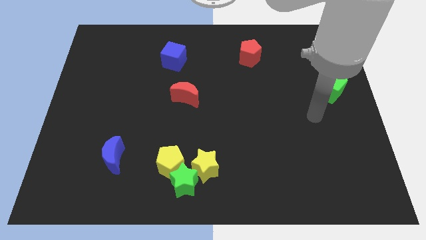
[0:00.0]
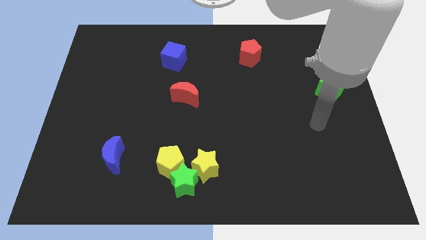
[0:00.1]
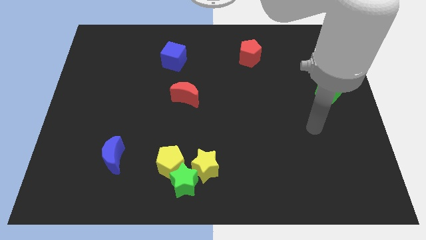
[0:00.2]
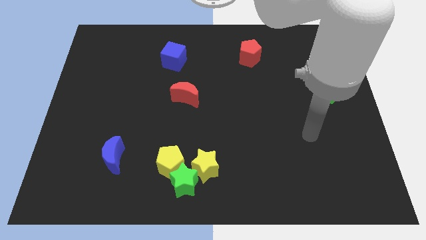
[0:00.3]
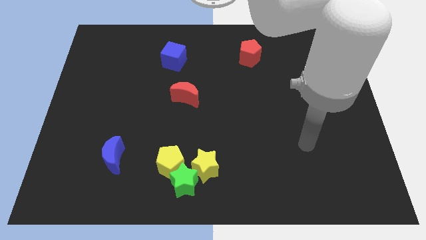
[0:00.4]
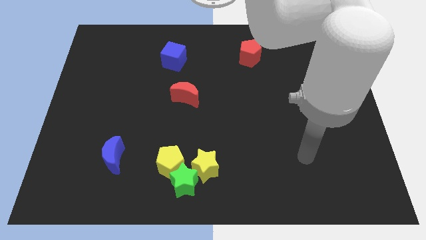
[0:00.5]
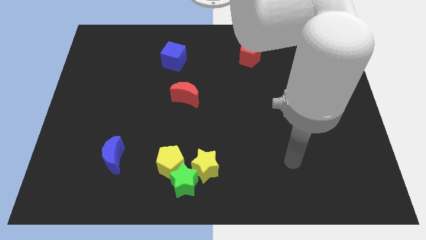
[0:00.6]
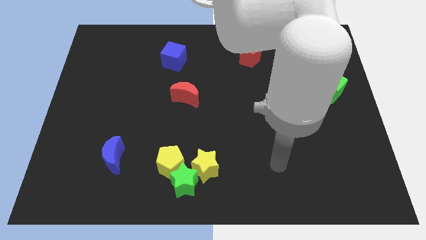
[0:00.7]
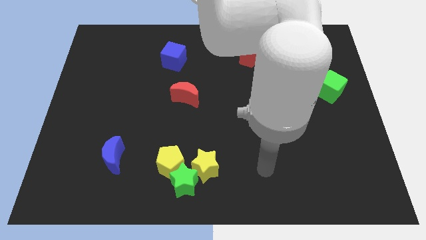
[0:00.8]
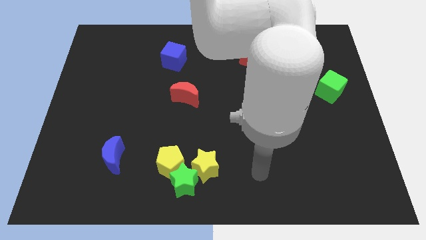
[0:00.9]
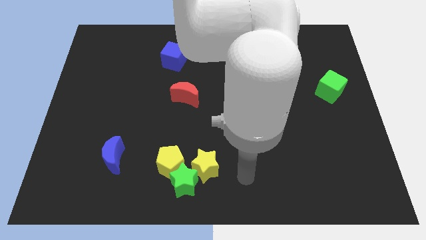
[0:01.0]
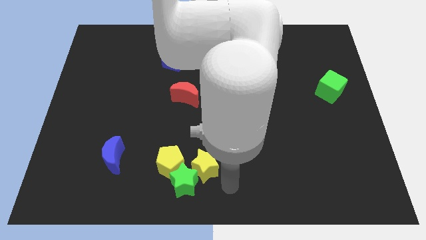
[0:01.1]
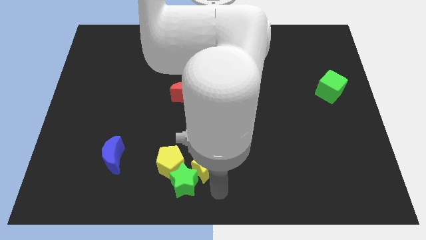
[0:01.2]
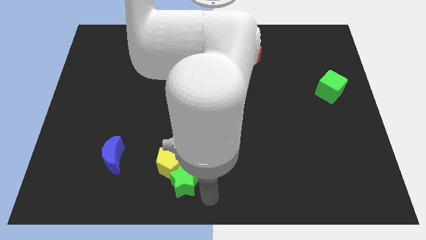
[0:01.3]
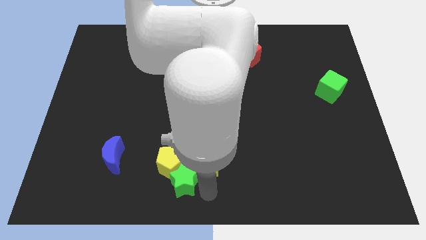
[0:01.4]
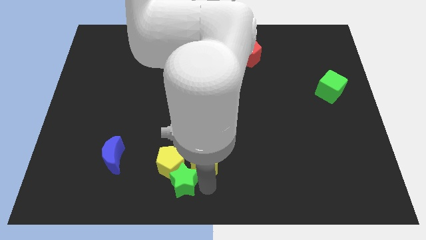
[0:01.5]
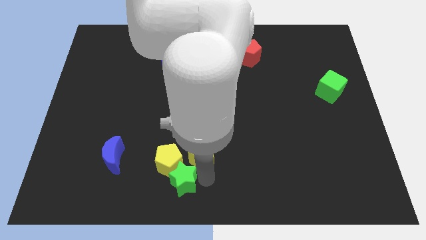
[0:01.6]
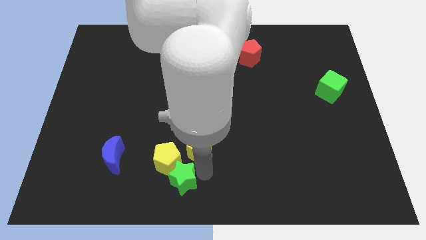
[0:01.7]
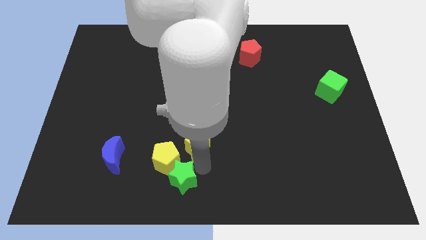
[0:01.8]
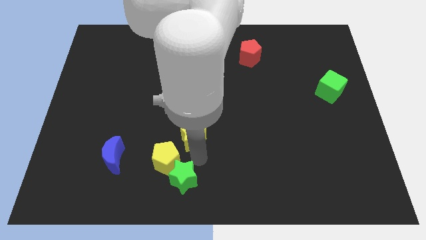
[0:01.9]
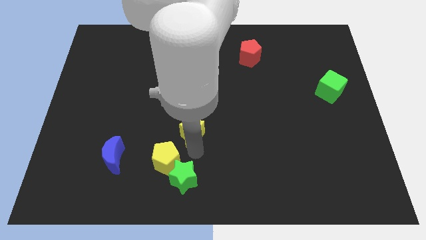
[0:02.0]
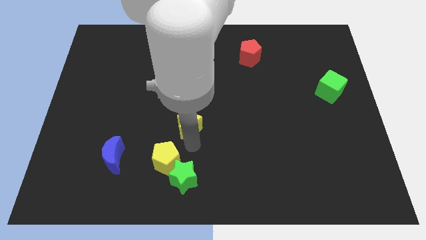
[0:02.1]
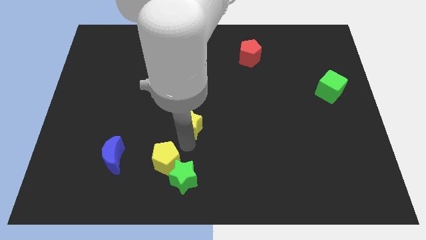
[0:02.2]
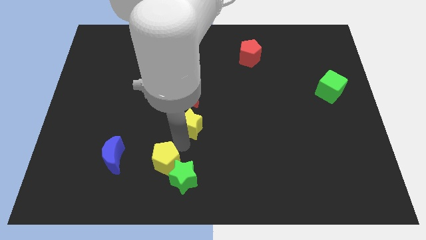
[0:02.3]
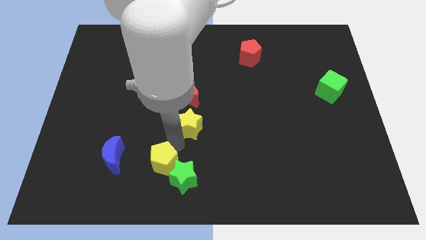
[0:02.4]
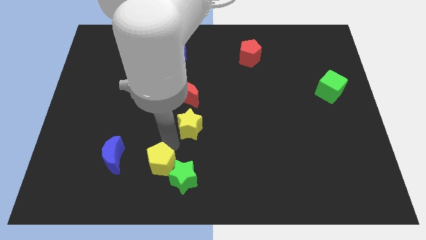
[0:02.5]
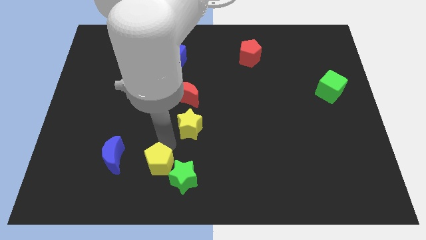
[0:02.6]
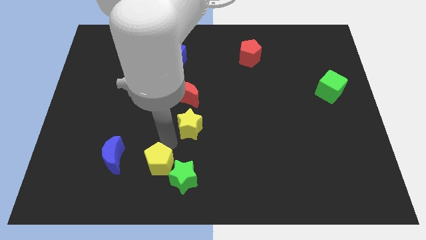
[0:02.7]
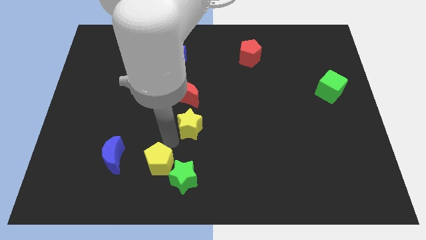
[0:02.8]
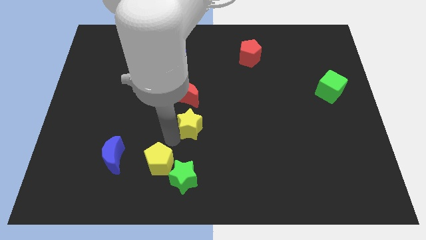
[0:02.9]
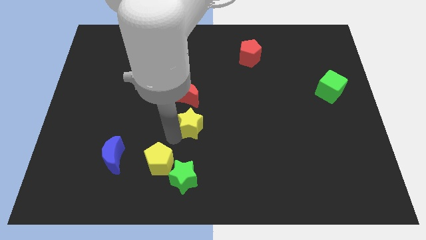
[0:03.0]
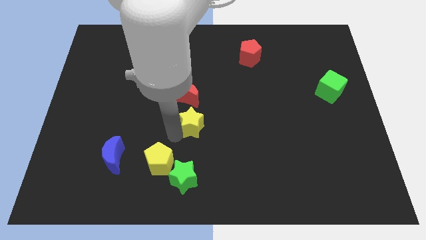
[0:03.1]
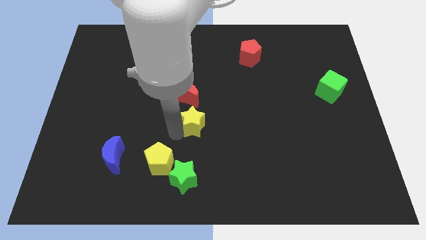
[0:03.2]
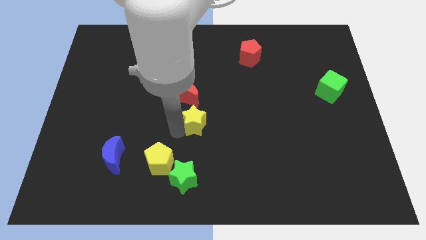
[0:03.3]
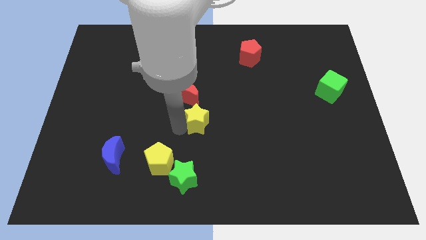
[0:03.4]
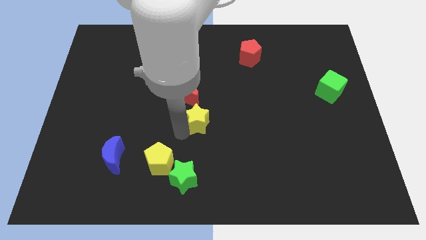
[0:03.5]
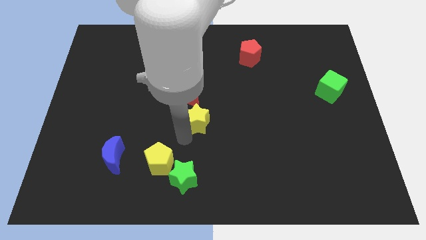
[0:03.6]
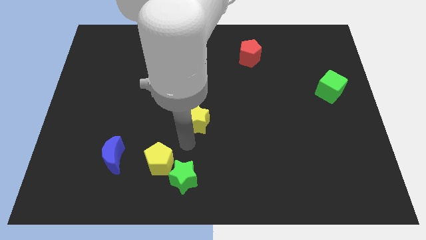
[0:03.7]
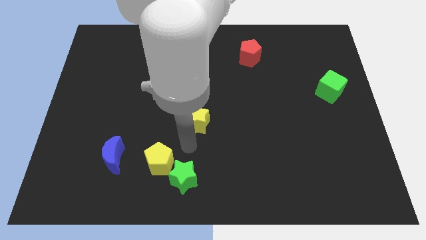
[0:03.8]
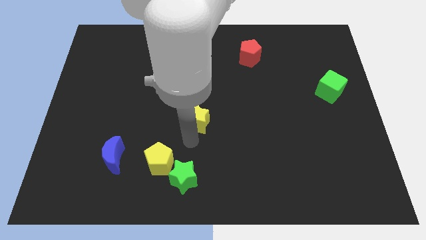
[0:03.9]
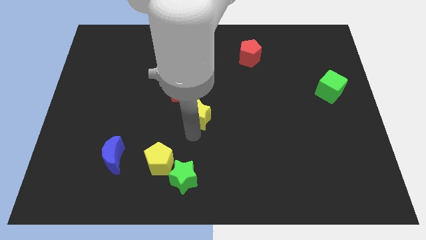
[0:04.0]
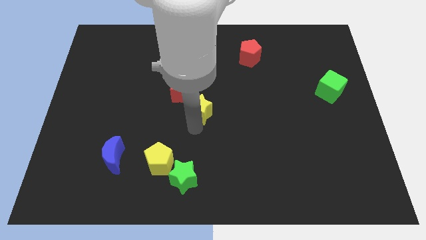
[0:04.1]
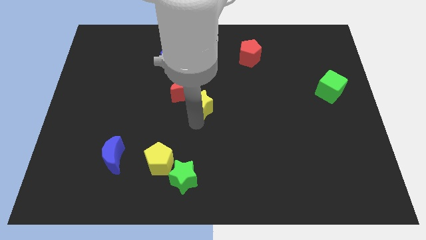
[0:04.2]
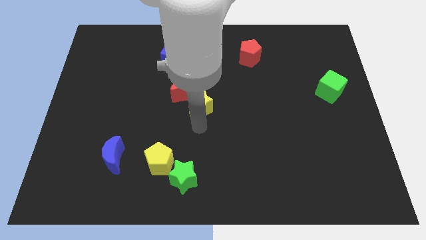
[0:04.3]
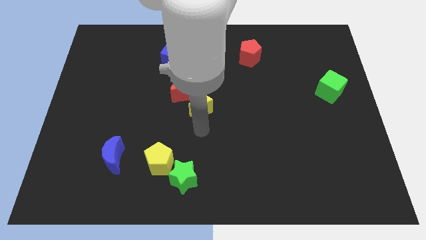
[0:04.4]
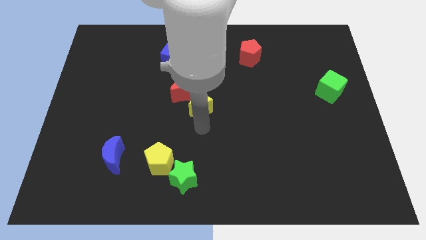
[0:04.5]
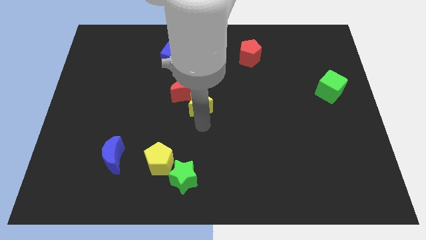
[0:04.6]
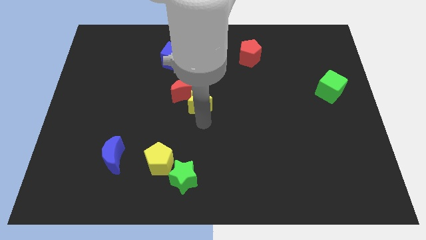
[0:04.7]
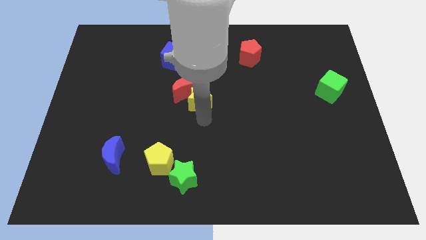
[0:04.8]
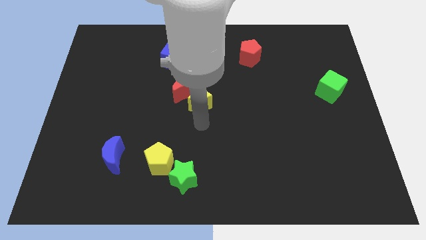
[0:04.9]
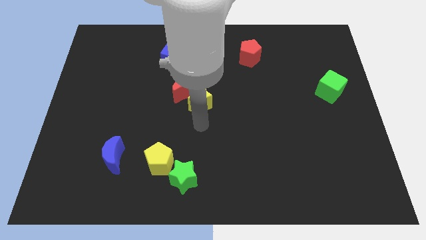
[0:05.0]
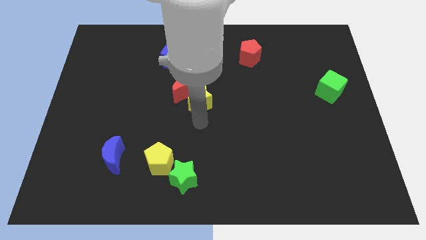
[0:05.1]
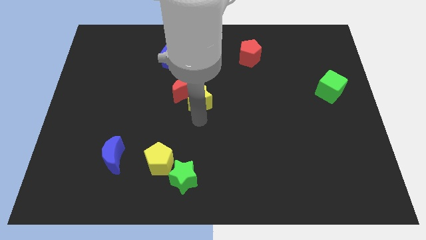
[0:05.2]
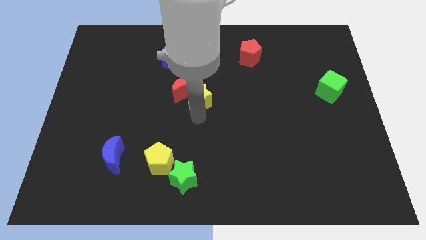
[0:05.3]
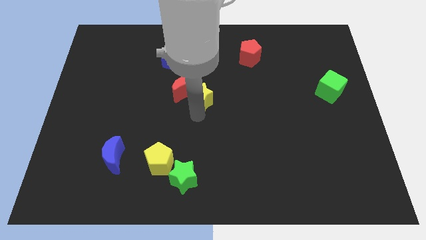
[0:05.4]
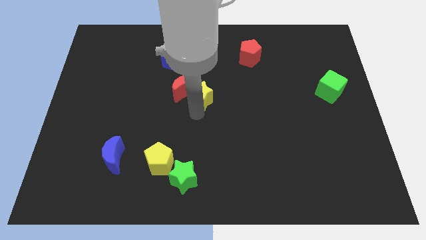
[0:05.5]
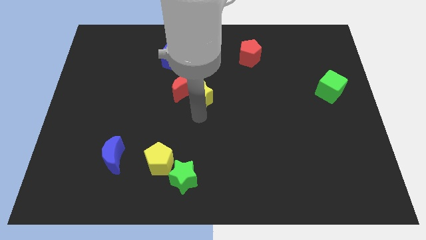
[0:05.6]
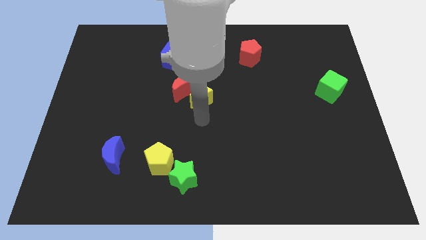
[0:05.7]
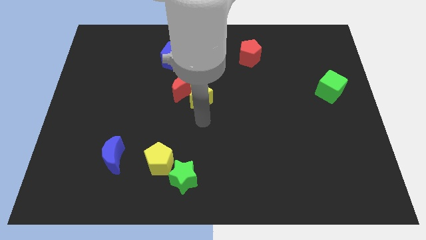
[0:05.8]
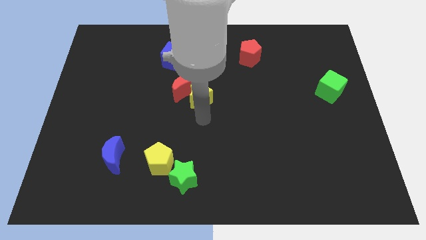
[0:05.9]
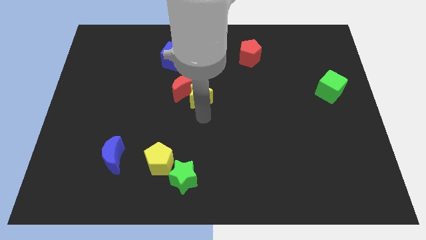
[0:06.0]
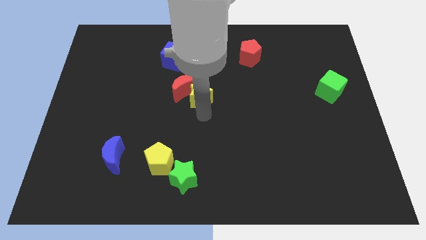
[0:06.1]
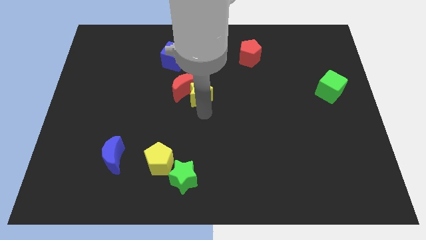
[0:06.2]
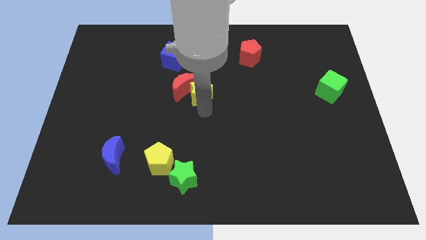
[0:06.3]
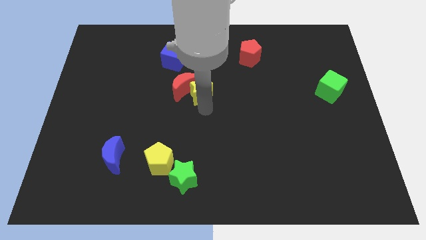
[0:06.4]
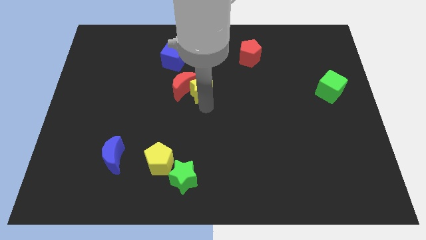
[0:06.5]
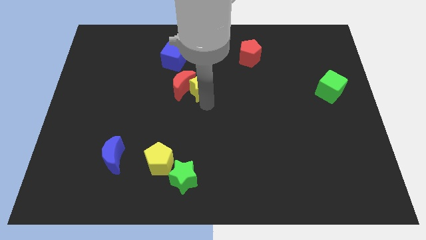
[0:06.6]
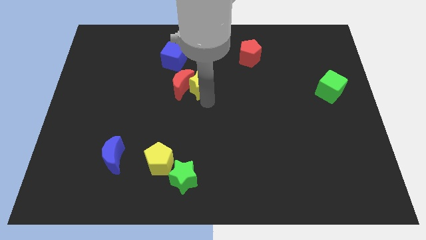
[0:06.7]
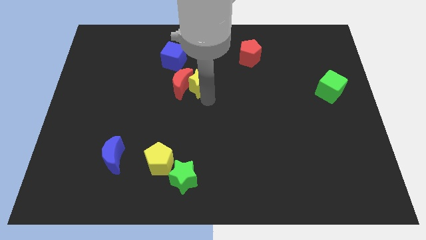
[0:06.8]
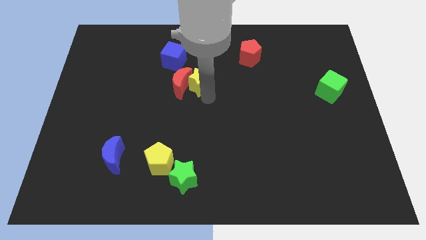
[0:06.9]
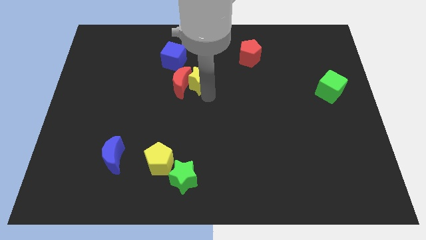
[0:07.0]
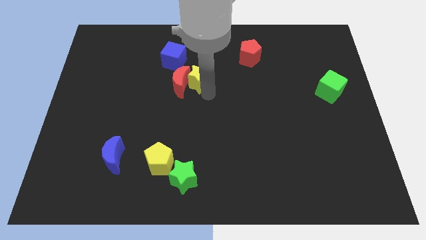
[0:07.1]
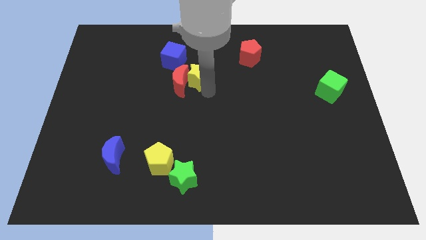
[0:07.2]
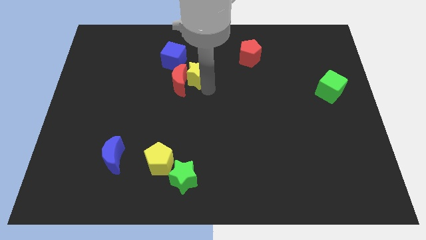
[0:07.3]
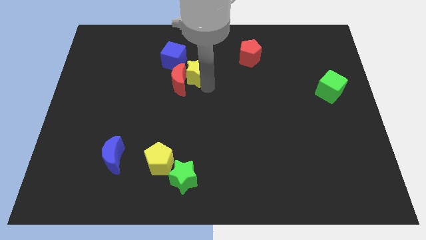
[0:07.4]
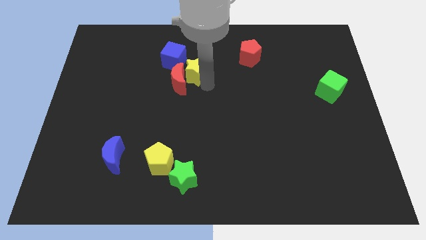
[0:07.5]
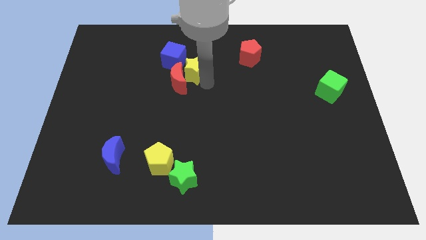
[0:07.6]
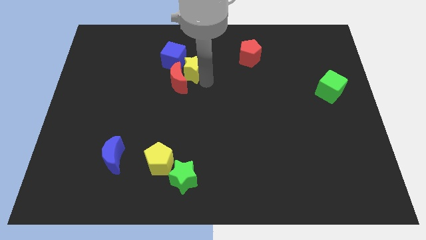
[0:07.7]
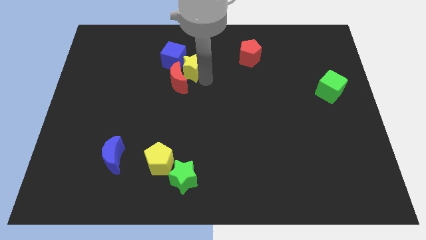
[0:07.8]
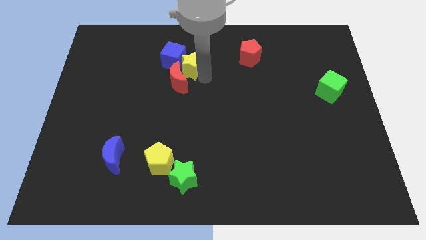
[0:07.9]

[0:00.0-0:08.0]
put the yellow star close to the blue cube
